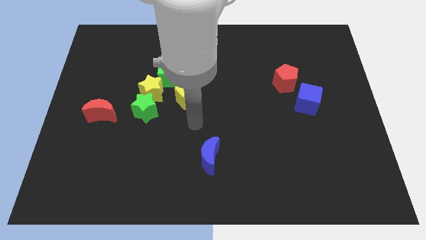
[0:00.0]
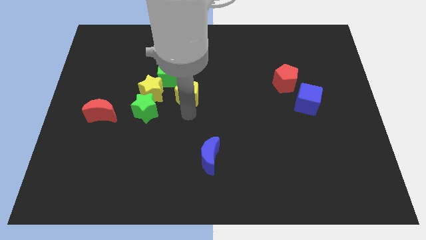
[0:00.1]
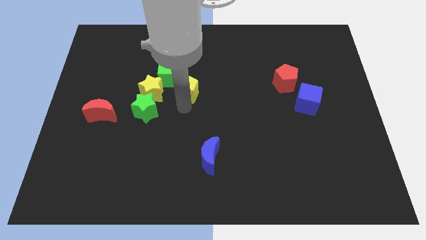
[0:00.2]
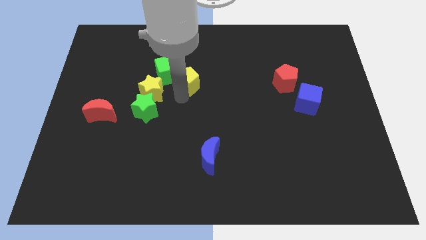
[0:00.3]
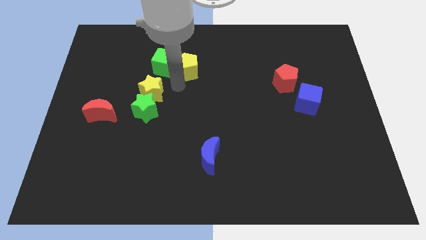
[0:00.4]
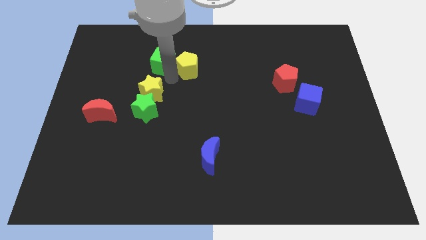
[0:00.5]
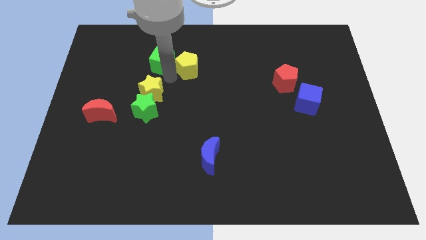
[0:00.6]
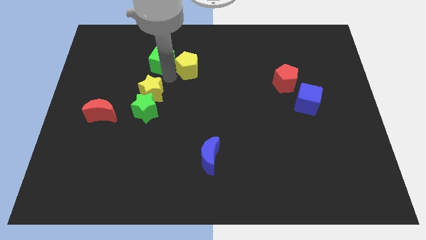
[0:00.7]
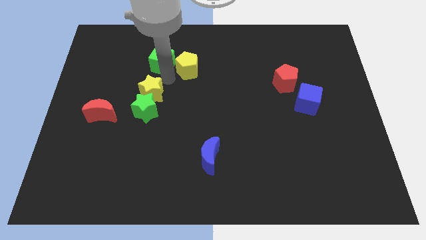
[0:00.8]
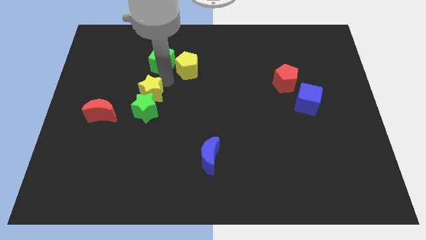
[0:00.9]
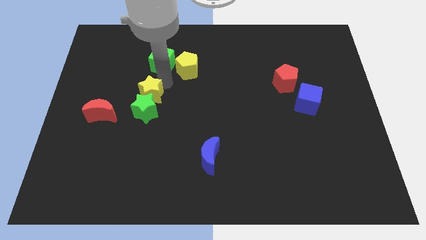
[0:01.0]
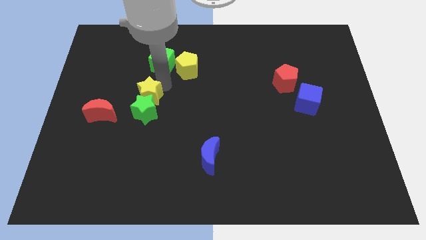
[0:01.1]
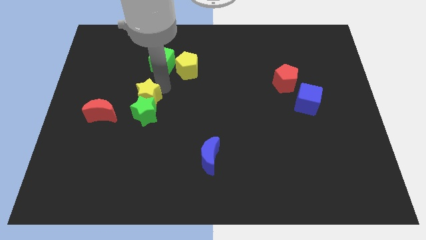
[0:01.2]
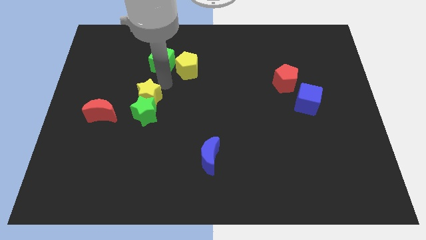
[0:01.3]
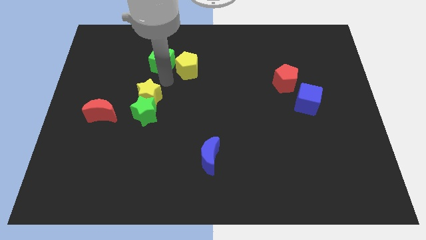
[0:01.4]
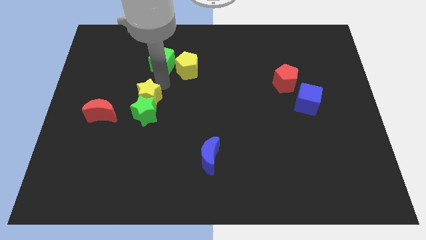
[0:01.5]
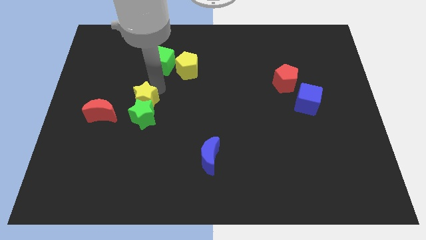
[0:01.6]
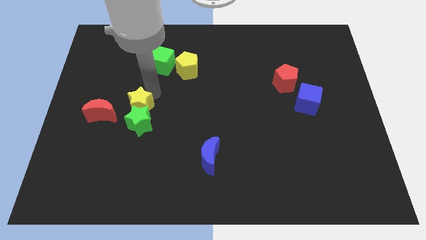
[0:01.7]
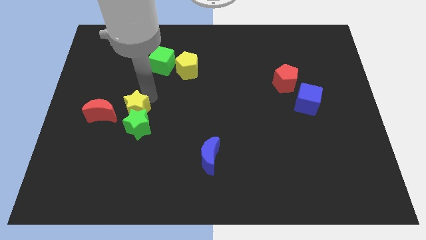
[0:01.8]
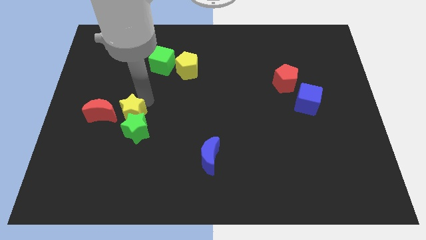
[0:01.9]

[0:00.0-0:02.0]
separate the yellow star from the green star, green cube, and yellow pentagon

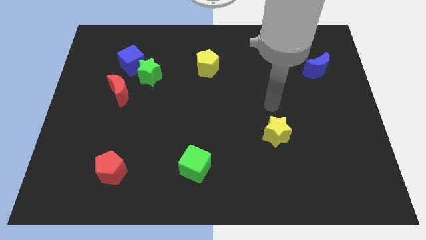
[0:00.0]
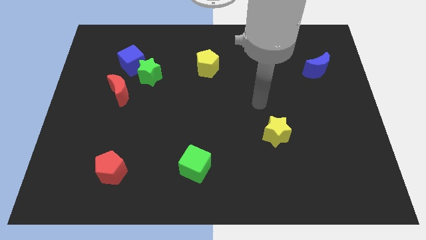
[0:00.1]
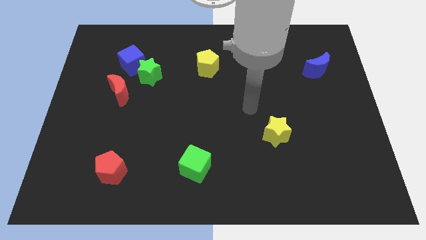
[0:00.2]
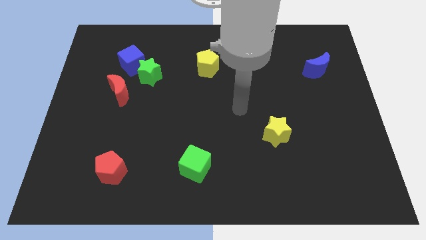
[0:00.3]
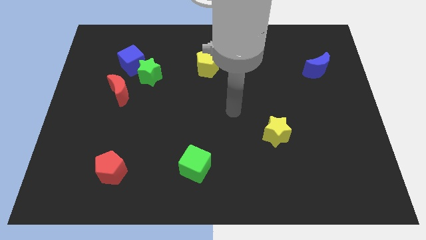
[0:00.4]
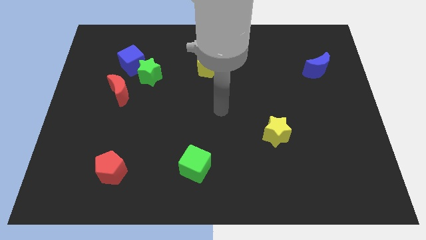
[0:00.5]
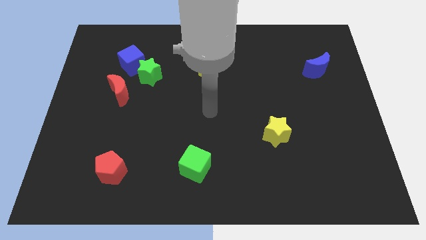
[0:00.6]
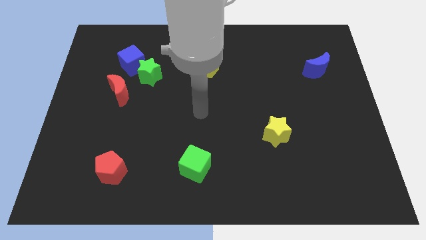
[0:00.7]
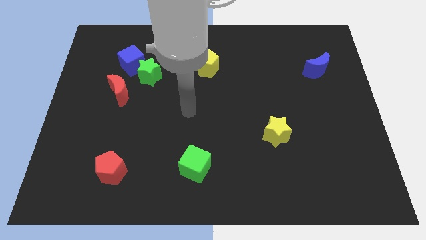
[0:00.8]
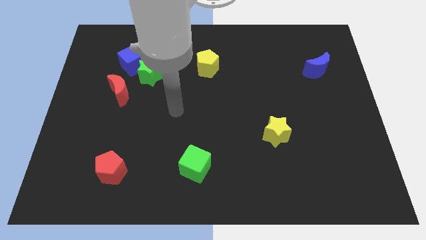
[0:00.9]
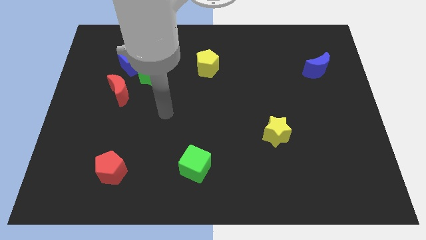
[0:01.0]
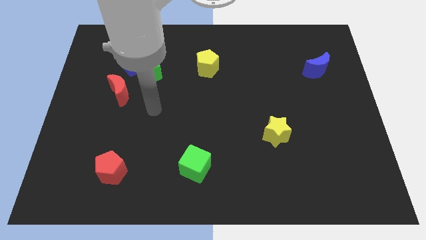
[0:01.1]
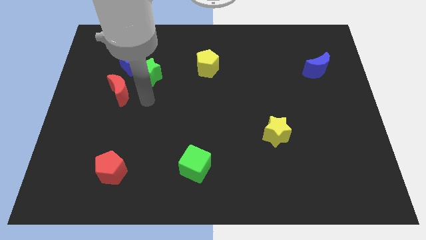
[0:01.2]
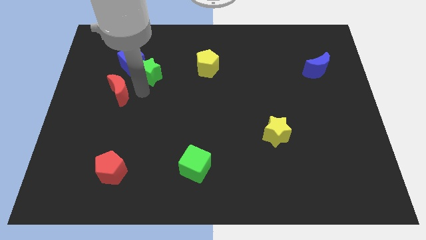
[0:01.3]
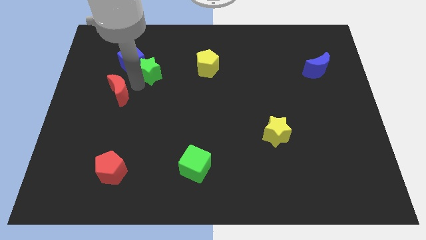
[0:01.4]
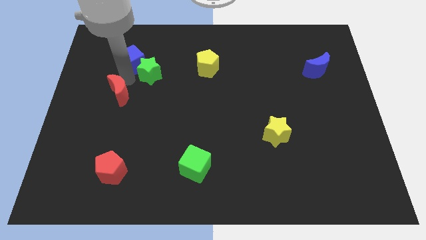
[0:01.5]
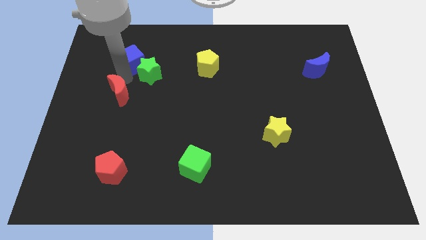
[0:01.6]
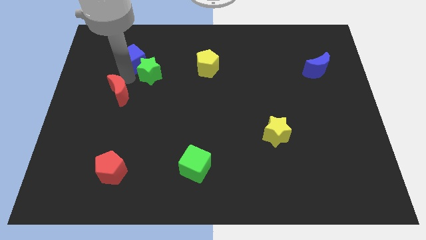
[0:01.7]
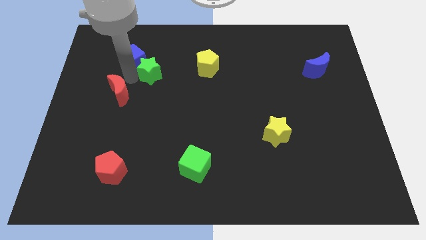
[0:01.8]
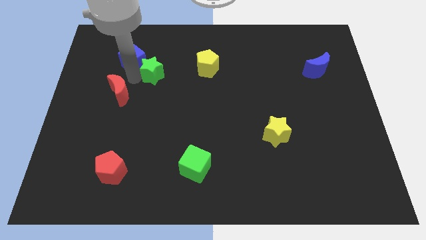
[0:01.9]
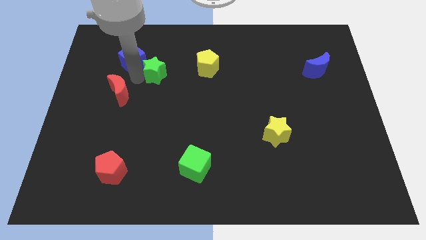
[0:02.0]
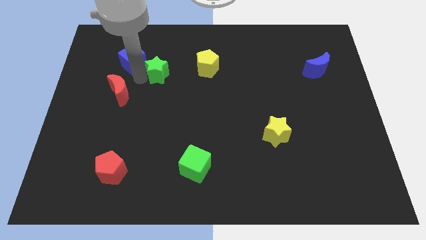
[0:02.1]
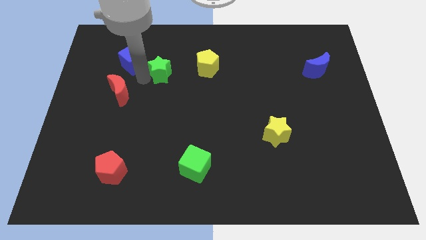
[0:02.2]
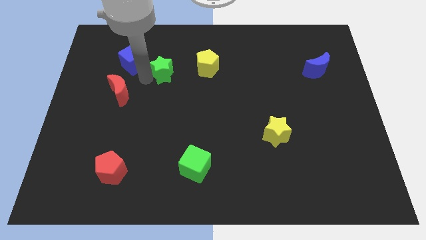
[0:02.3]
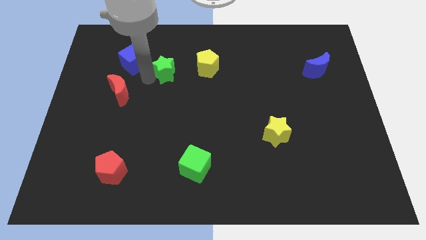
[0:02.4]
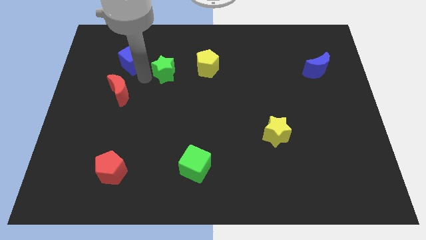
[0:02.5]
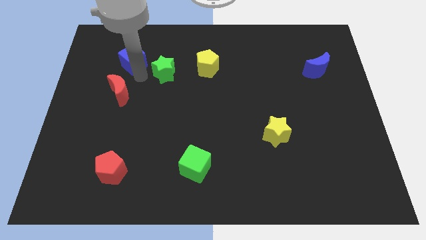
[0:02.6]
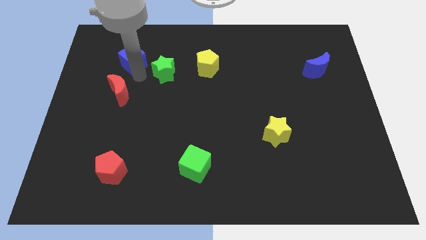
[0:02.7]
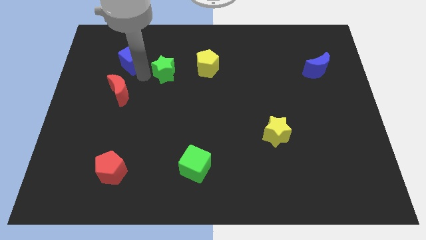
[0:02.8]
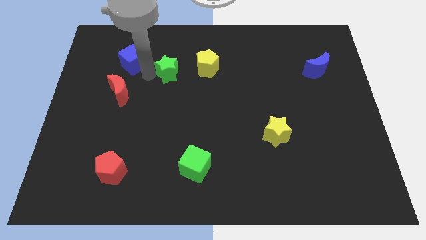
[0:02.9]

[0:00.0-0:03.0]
pull the green star apart from the blue cube and red moon

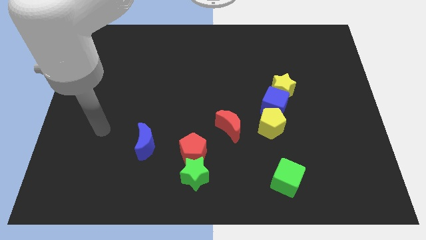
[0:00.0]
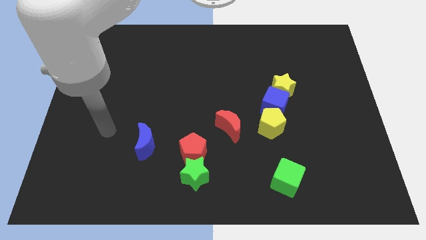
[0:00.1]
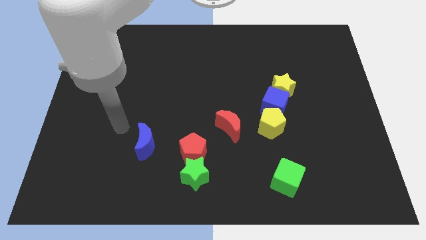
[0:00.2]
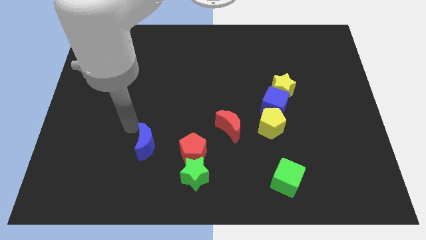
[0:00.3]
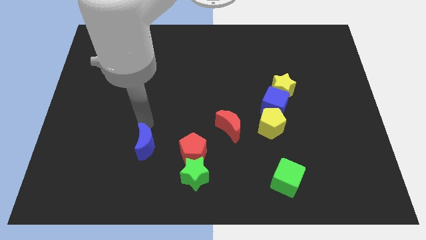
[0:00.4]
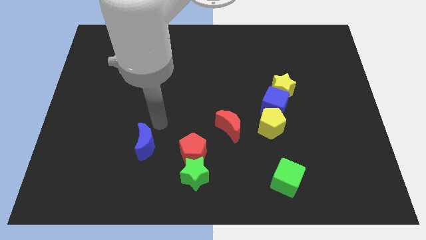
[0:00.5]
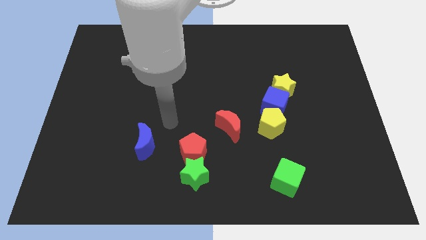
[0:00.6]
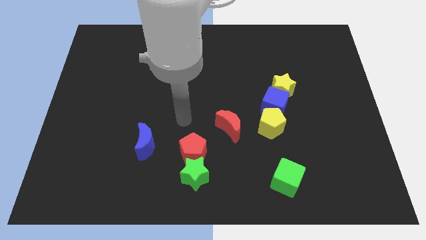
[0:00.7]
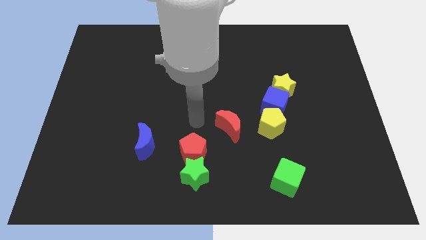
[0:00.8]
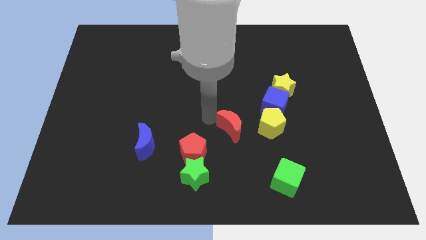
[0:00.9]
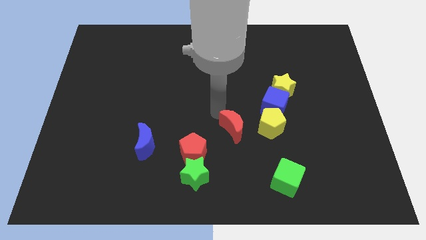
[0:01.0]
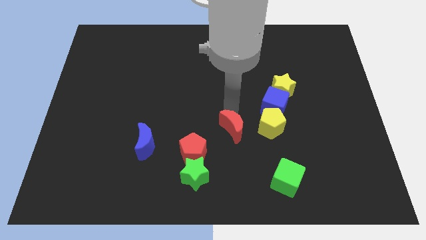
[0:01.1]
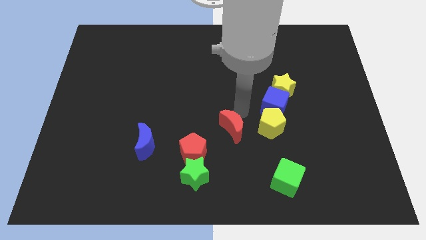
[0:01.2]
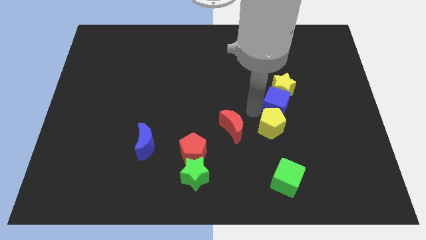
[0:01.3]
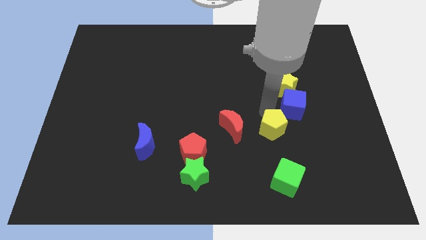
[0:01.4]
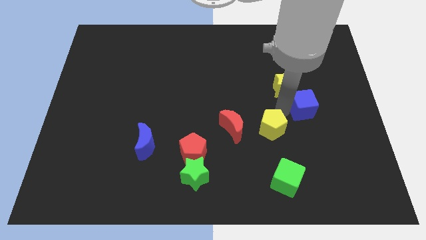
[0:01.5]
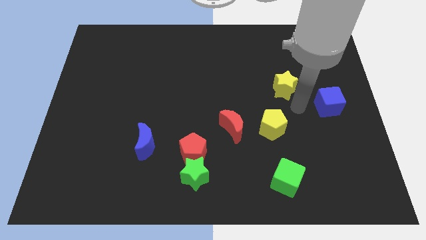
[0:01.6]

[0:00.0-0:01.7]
separate the yellow star from the blue cube

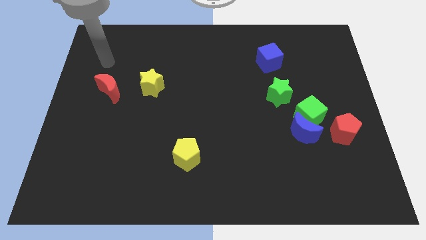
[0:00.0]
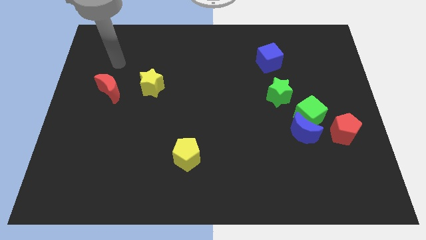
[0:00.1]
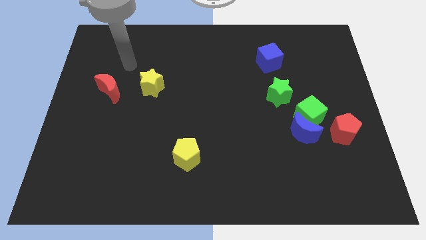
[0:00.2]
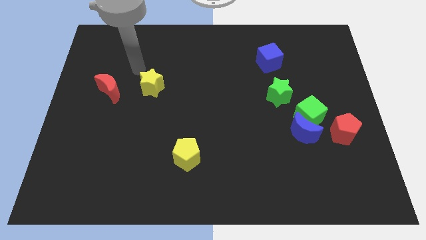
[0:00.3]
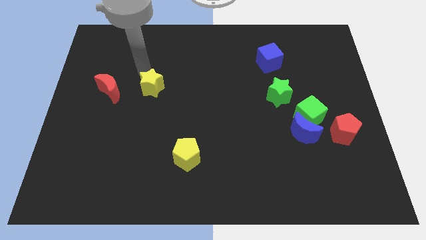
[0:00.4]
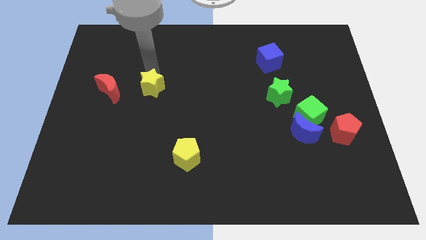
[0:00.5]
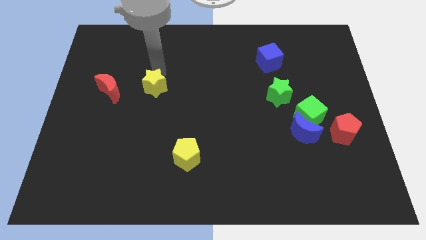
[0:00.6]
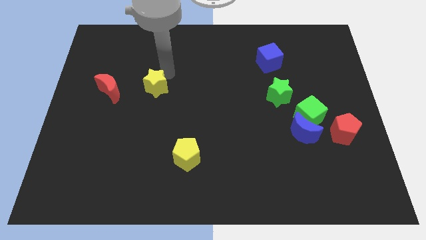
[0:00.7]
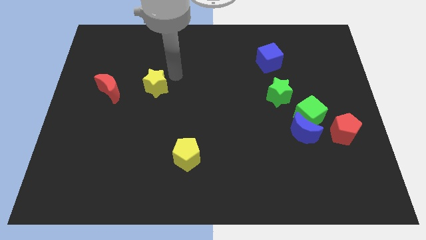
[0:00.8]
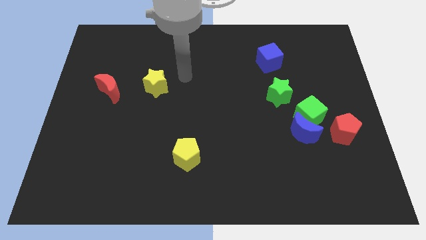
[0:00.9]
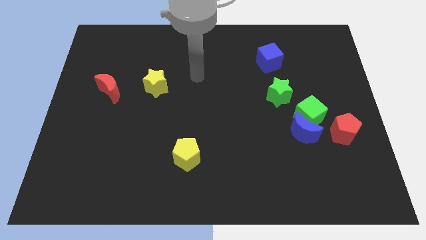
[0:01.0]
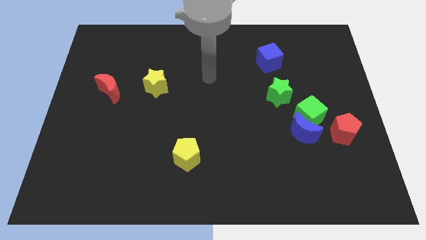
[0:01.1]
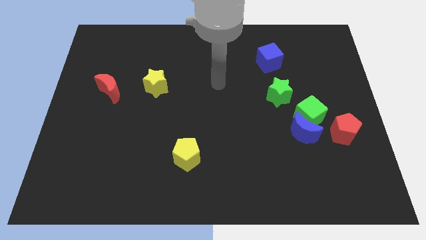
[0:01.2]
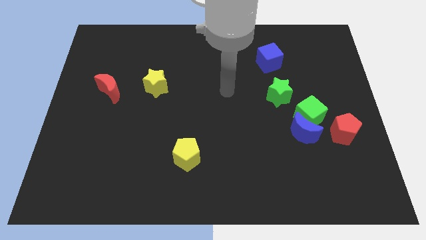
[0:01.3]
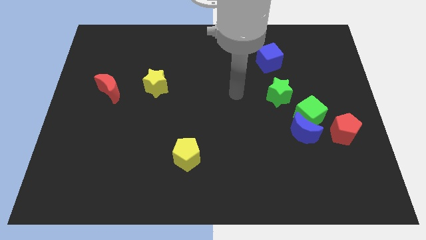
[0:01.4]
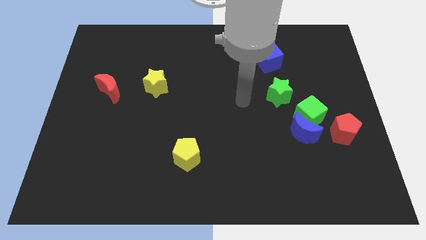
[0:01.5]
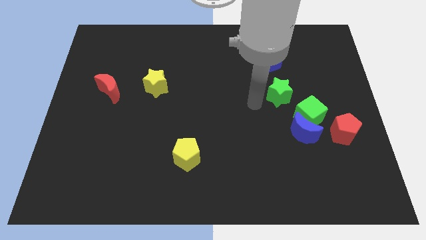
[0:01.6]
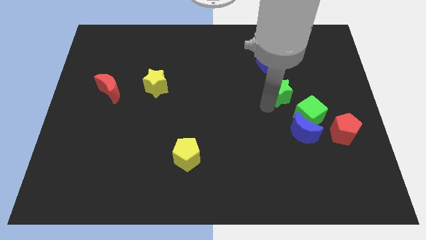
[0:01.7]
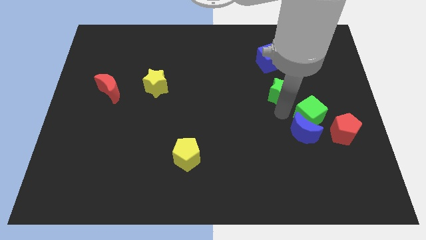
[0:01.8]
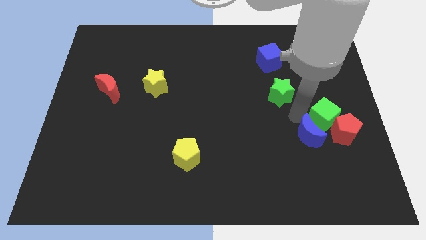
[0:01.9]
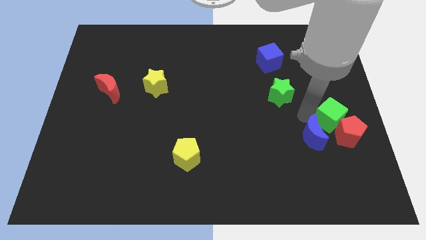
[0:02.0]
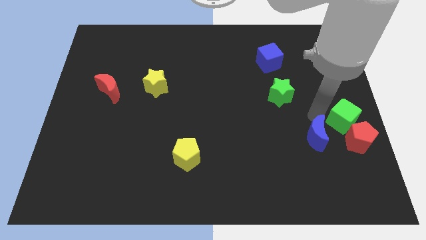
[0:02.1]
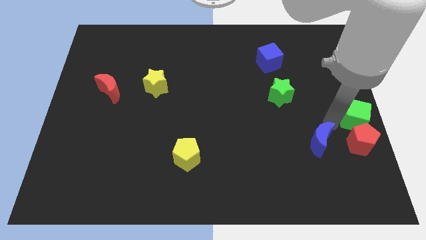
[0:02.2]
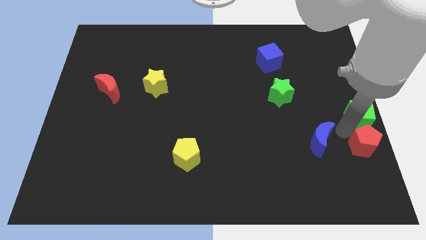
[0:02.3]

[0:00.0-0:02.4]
pull the blue moon apart from the green cube and red pentagon
